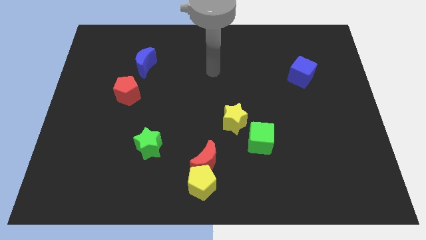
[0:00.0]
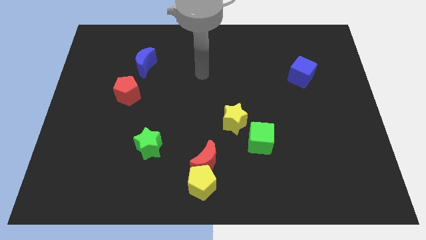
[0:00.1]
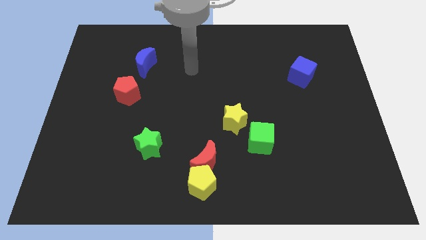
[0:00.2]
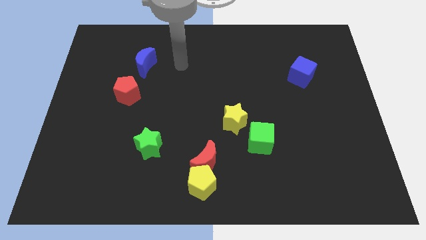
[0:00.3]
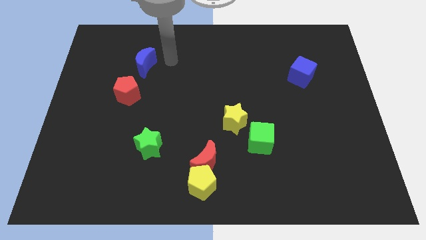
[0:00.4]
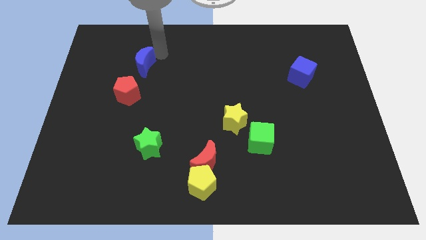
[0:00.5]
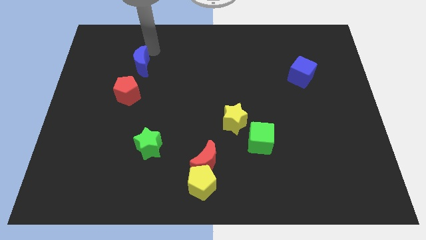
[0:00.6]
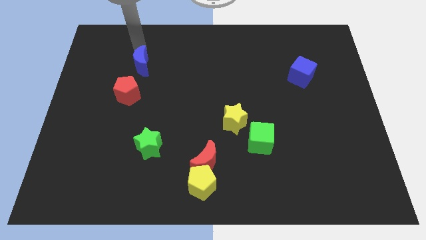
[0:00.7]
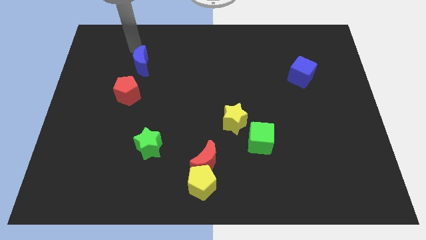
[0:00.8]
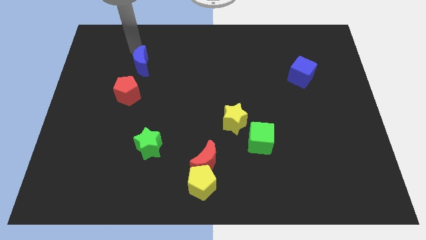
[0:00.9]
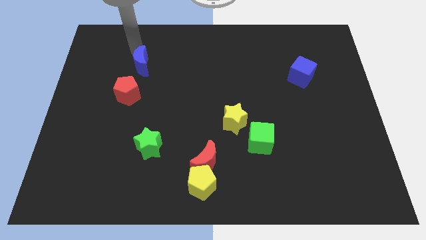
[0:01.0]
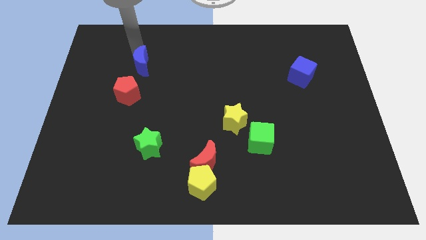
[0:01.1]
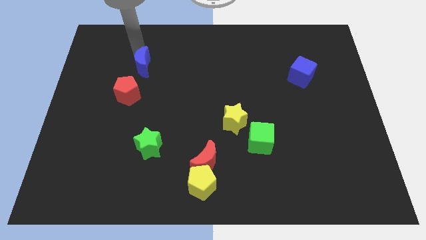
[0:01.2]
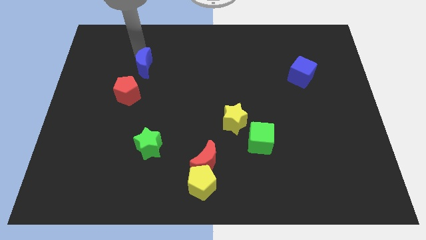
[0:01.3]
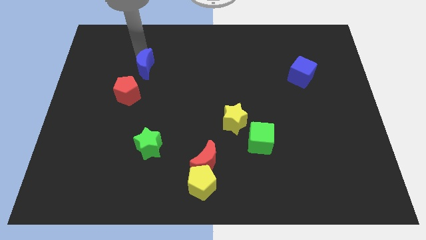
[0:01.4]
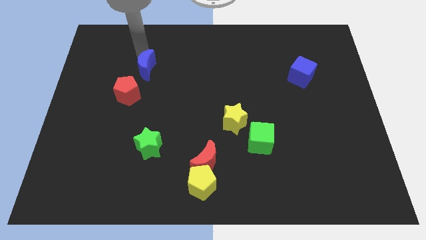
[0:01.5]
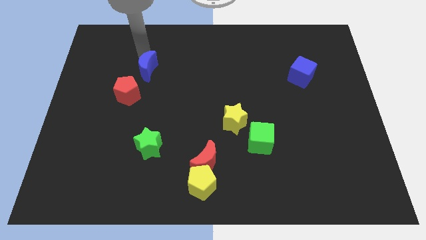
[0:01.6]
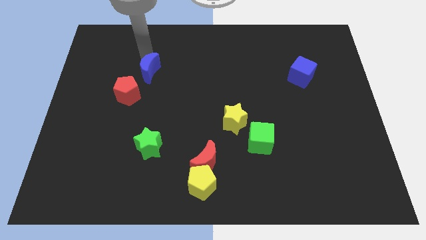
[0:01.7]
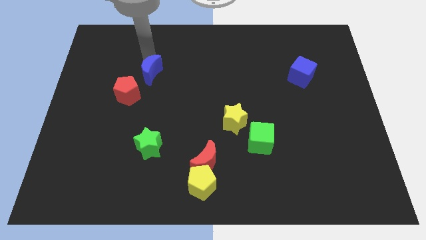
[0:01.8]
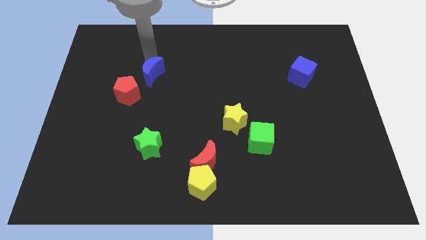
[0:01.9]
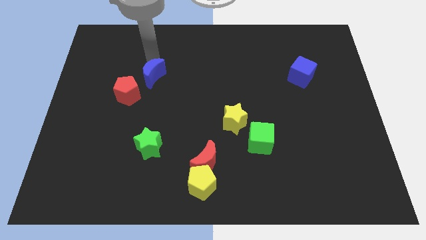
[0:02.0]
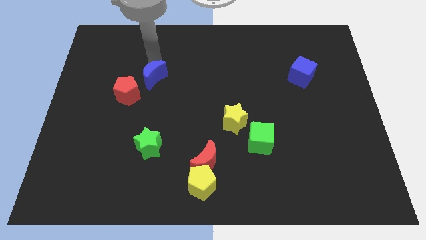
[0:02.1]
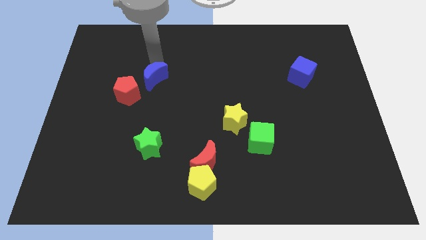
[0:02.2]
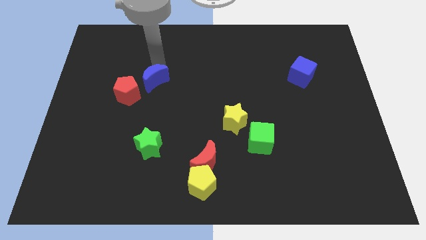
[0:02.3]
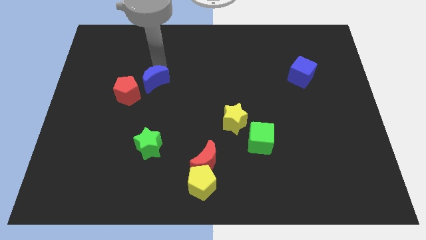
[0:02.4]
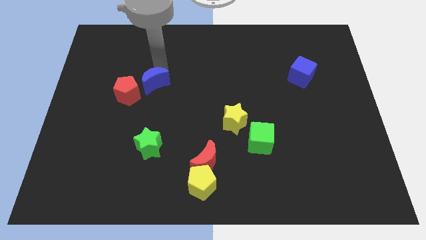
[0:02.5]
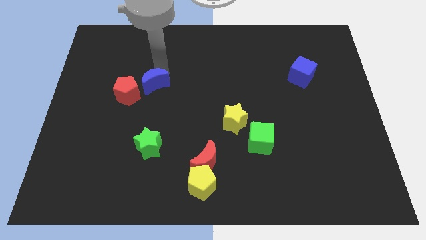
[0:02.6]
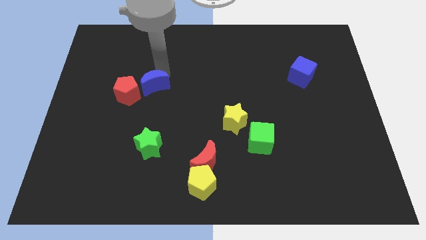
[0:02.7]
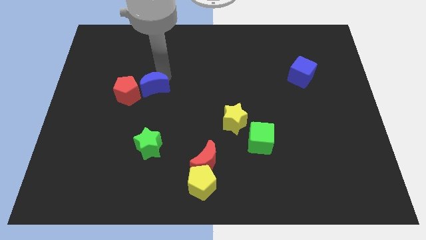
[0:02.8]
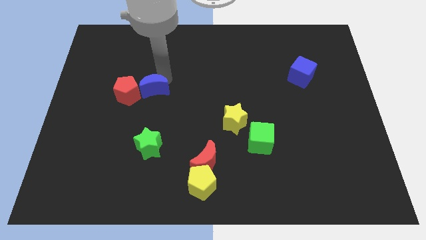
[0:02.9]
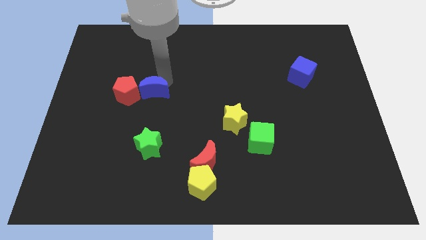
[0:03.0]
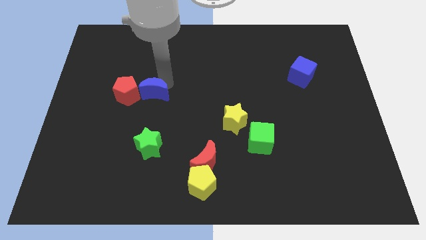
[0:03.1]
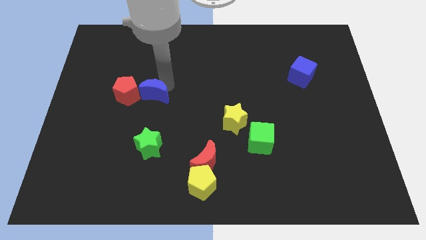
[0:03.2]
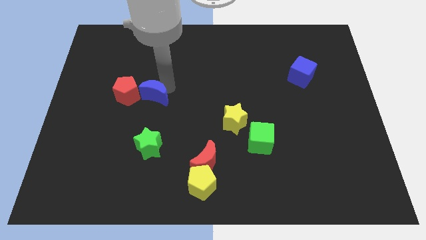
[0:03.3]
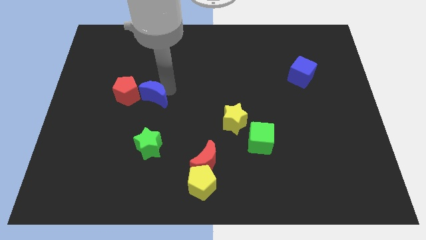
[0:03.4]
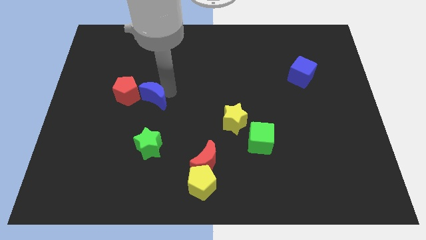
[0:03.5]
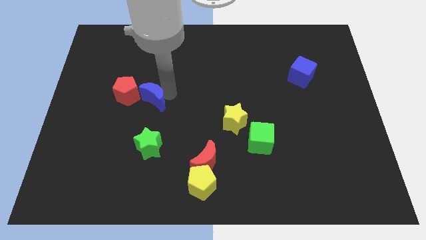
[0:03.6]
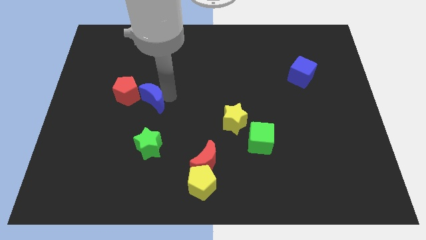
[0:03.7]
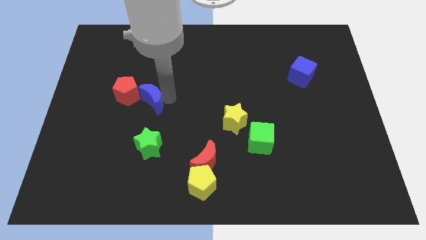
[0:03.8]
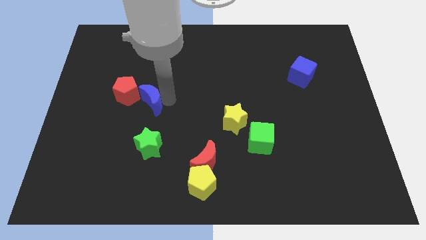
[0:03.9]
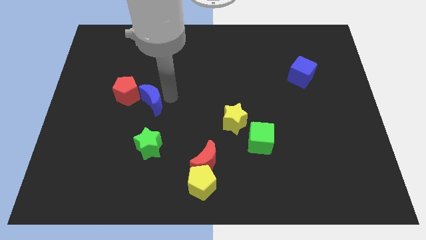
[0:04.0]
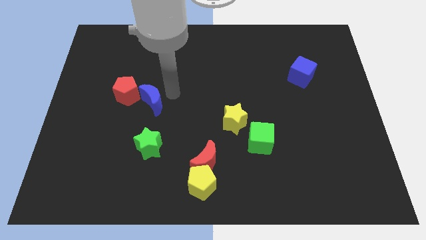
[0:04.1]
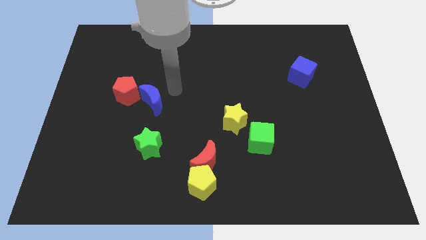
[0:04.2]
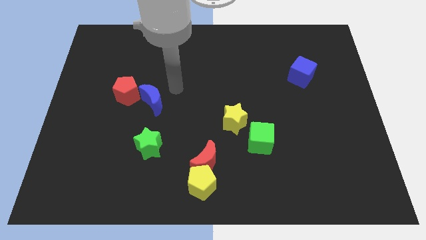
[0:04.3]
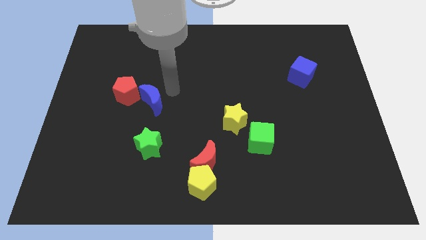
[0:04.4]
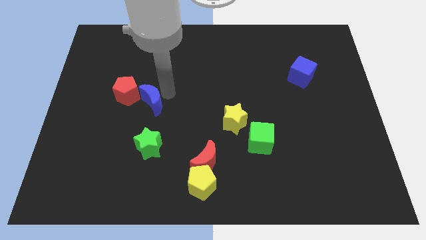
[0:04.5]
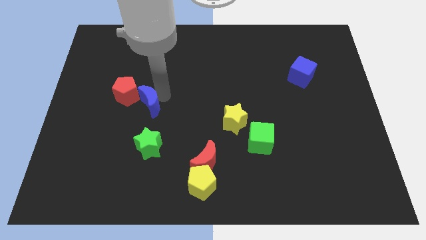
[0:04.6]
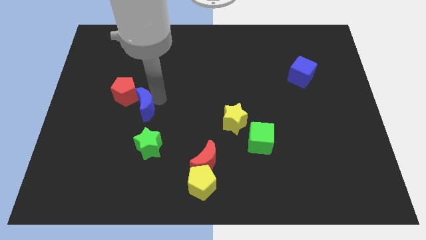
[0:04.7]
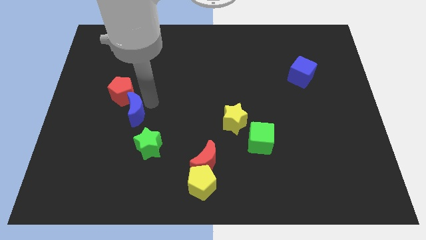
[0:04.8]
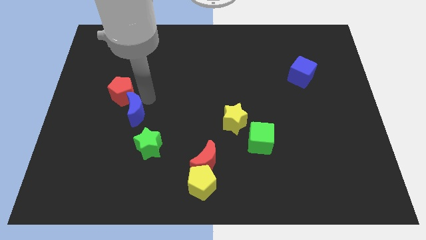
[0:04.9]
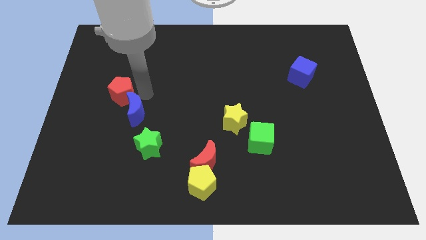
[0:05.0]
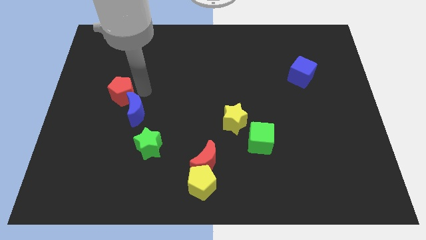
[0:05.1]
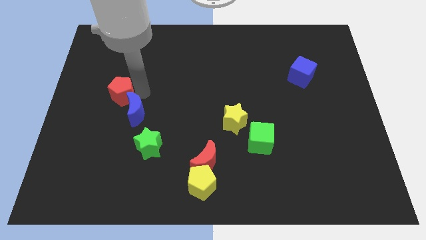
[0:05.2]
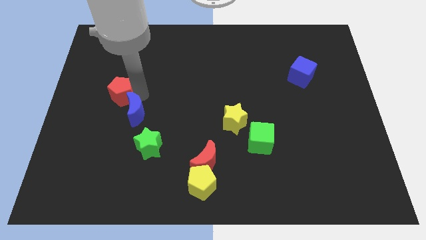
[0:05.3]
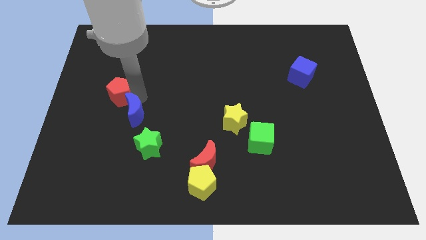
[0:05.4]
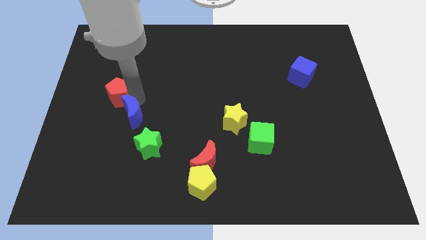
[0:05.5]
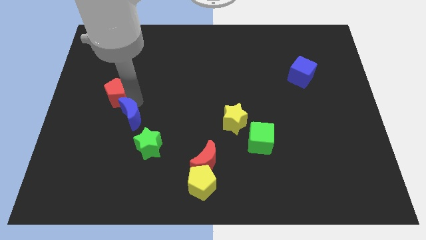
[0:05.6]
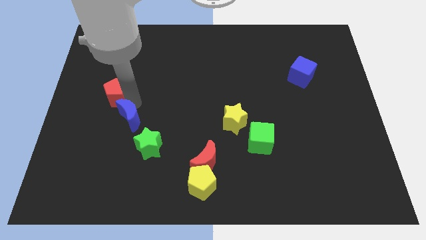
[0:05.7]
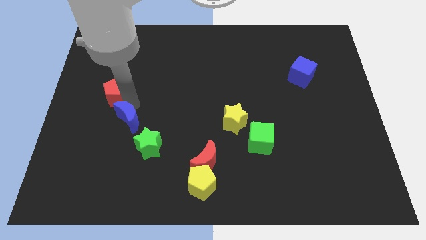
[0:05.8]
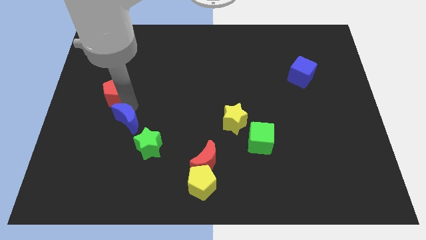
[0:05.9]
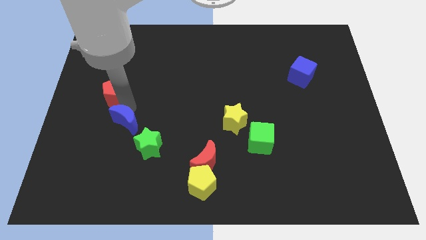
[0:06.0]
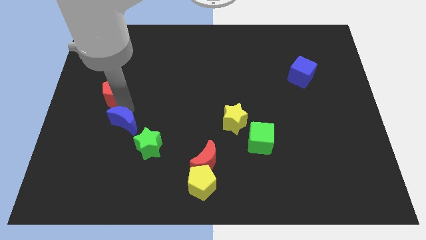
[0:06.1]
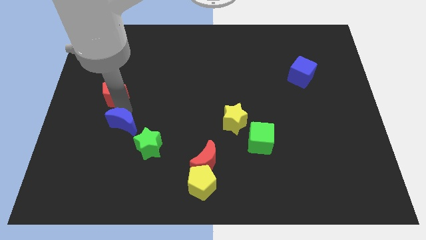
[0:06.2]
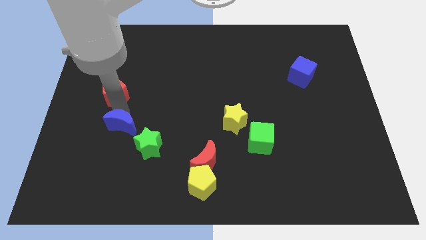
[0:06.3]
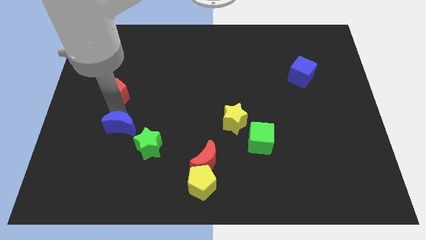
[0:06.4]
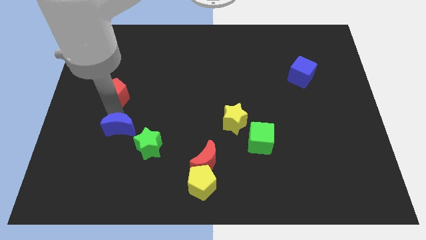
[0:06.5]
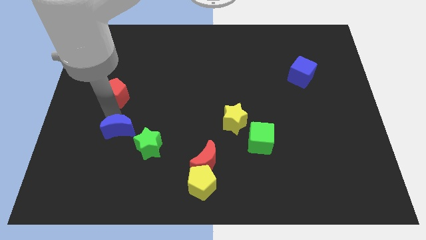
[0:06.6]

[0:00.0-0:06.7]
slide the blue moon downwards

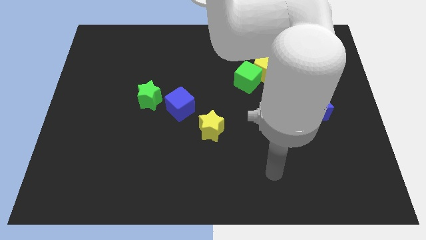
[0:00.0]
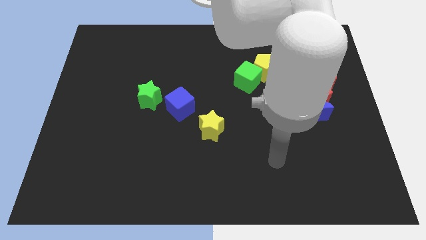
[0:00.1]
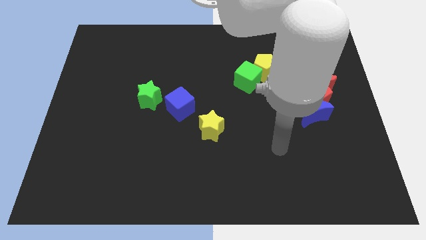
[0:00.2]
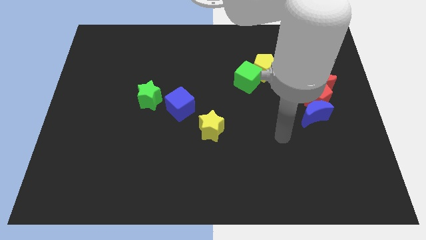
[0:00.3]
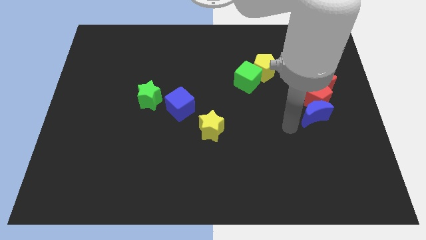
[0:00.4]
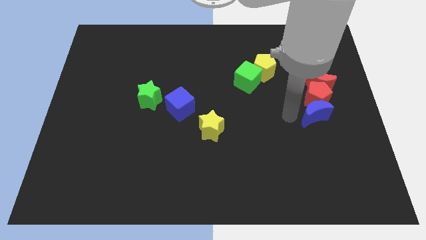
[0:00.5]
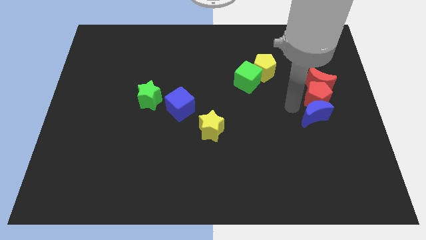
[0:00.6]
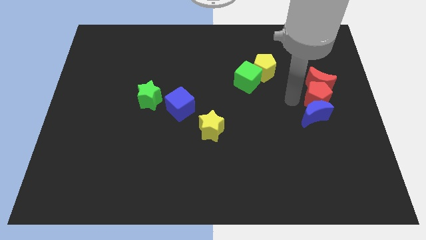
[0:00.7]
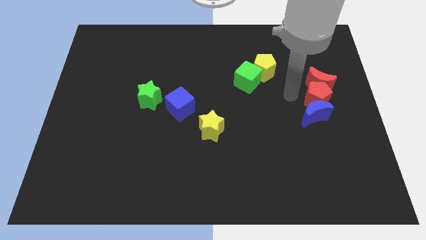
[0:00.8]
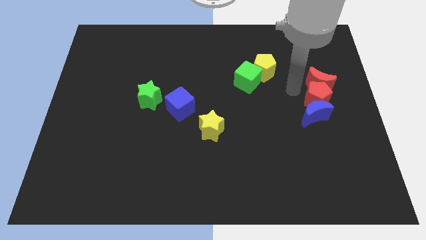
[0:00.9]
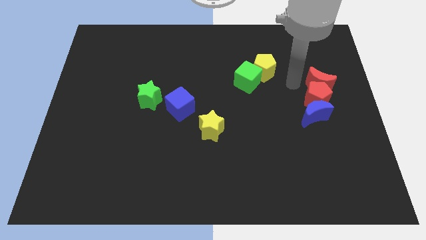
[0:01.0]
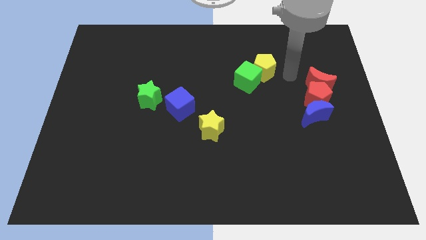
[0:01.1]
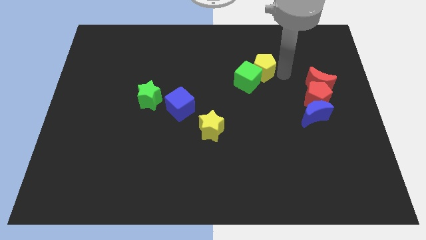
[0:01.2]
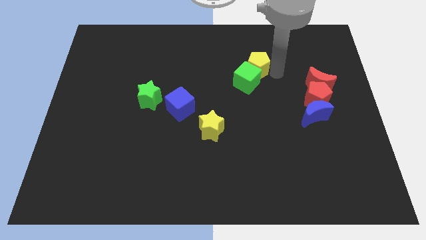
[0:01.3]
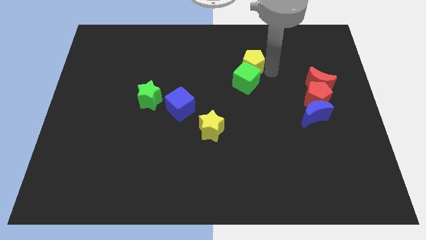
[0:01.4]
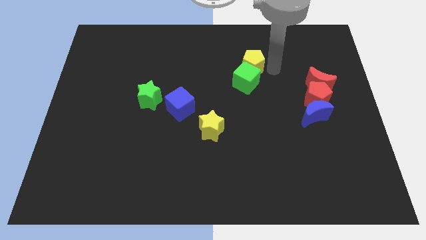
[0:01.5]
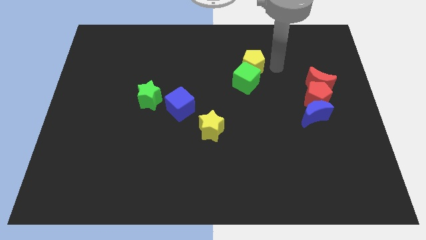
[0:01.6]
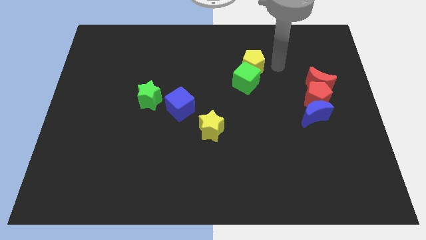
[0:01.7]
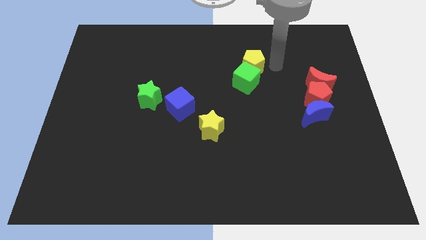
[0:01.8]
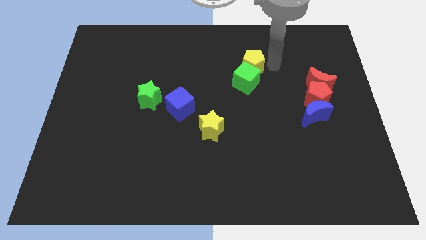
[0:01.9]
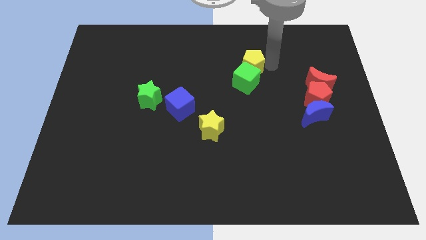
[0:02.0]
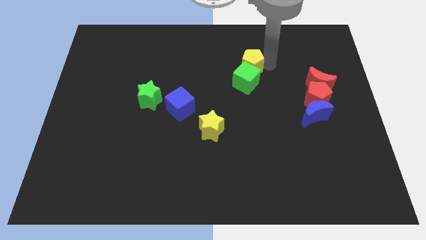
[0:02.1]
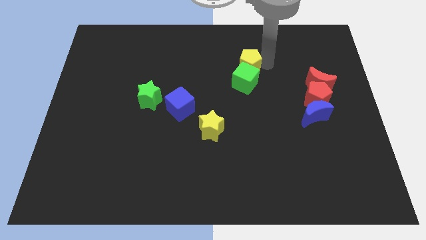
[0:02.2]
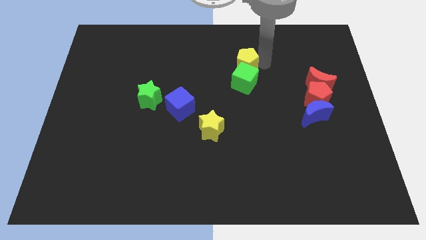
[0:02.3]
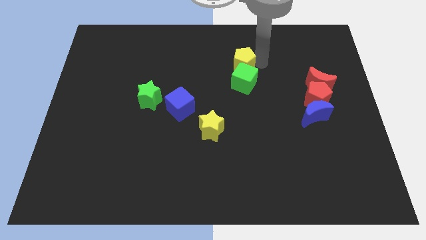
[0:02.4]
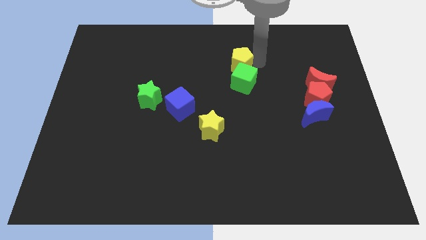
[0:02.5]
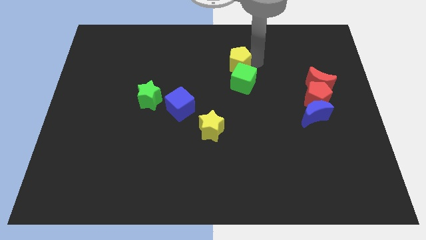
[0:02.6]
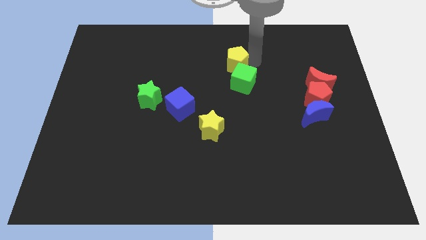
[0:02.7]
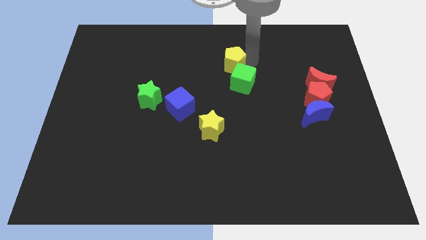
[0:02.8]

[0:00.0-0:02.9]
push the yellow pentagon to the left a bit
